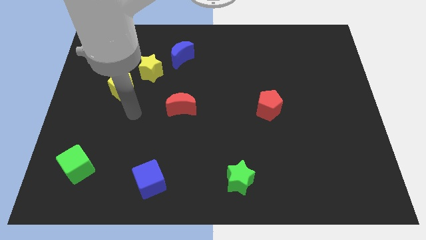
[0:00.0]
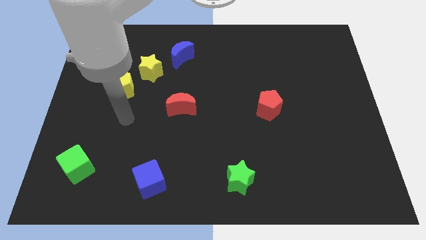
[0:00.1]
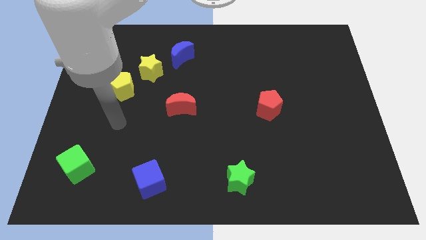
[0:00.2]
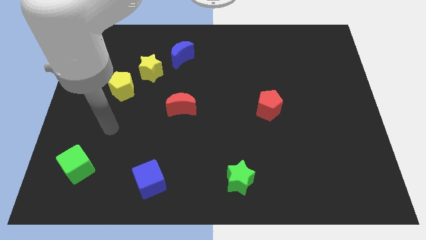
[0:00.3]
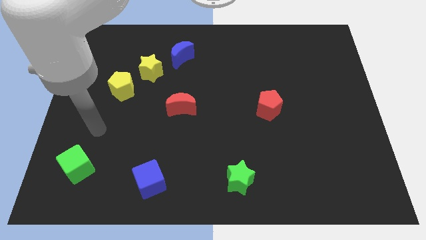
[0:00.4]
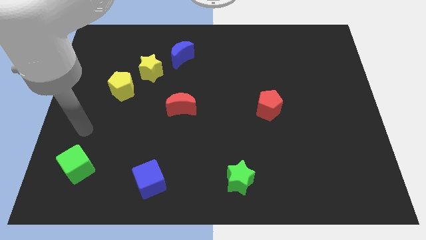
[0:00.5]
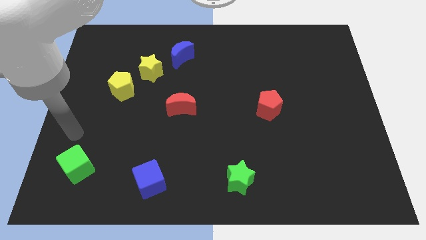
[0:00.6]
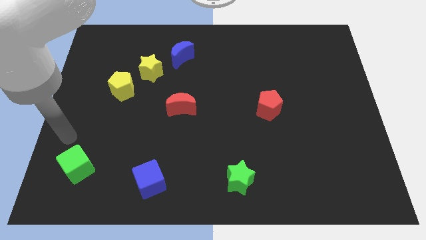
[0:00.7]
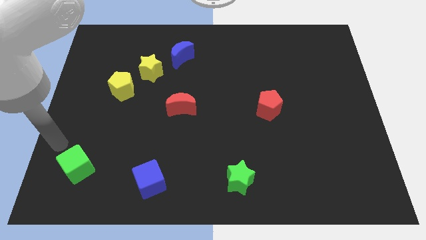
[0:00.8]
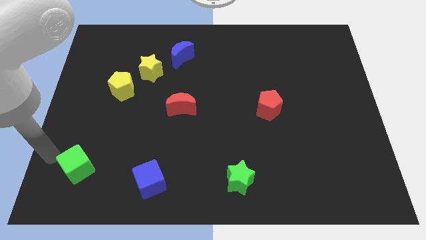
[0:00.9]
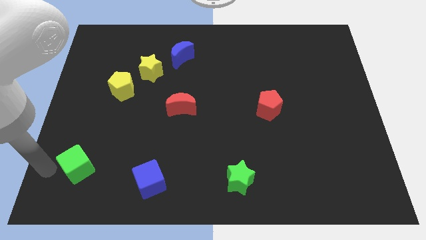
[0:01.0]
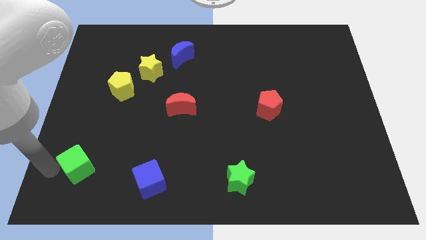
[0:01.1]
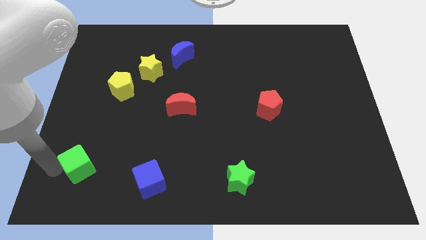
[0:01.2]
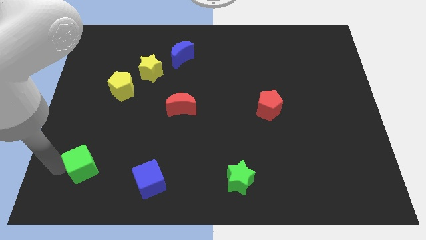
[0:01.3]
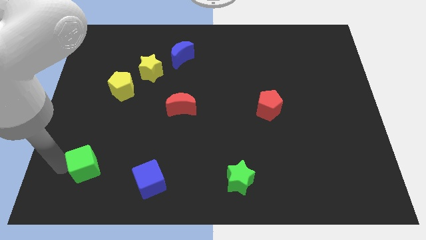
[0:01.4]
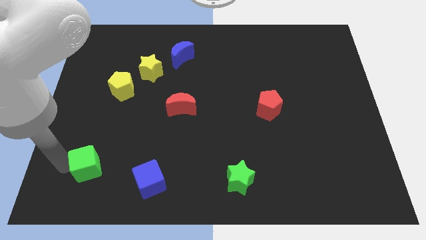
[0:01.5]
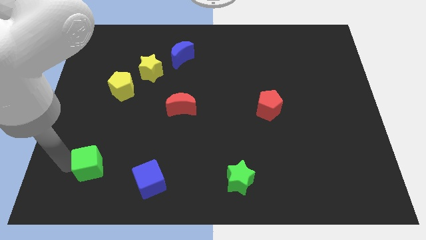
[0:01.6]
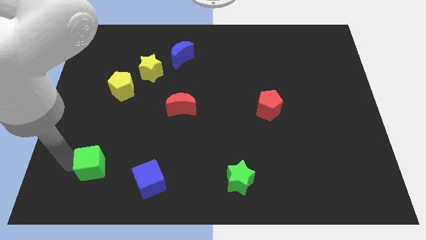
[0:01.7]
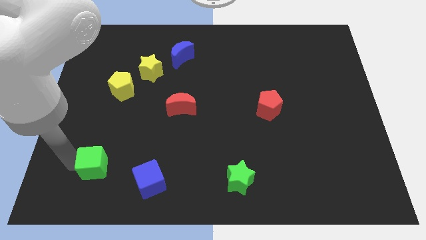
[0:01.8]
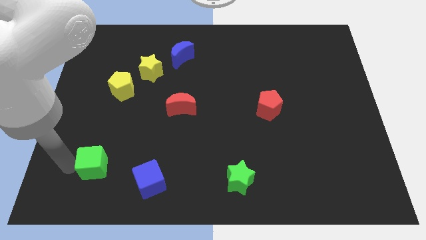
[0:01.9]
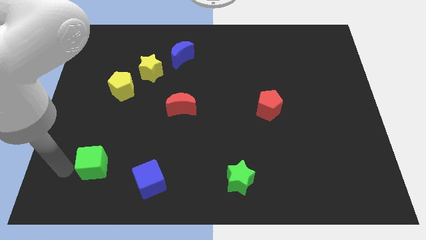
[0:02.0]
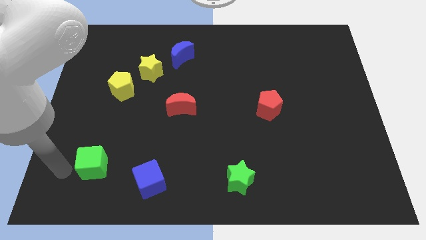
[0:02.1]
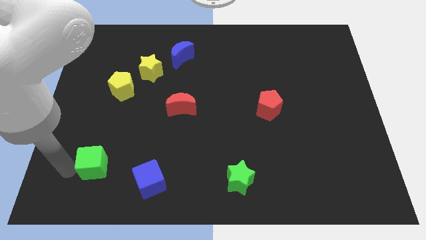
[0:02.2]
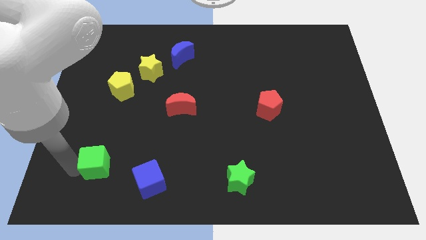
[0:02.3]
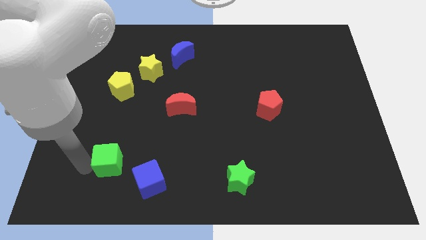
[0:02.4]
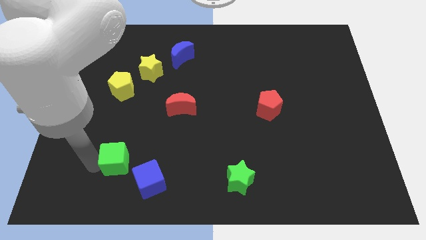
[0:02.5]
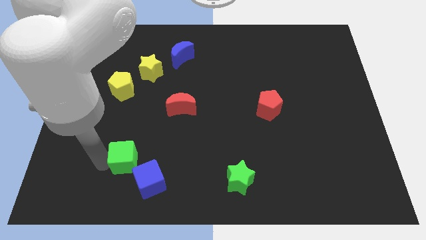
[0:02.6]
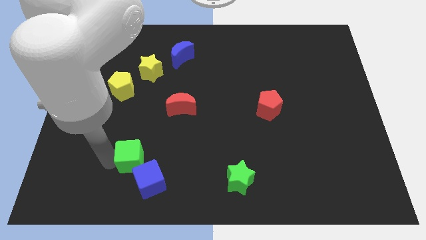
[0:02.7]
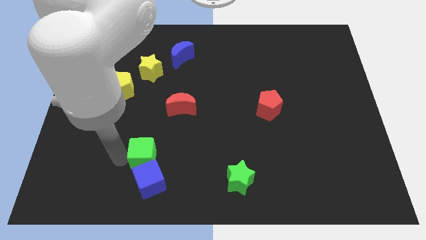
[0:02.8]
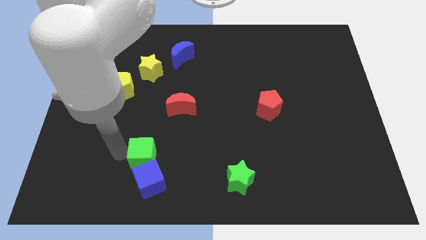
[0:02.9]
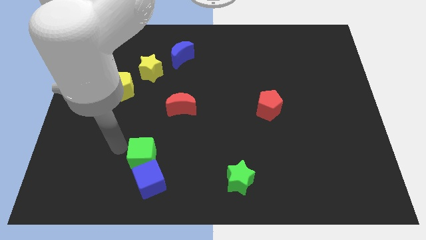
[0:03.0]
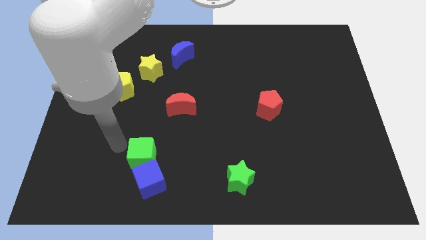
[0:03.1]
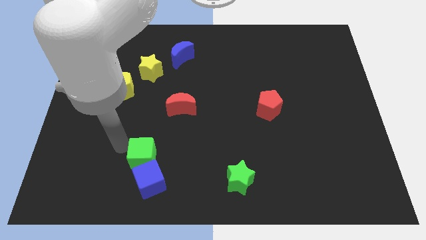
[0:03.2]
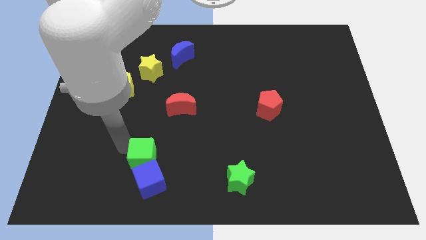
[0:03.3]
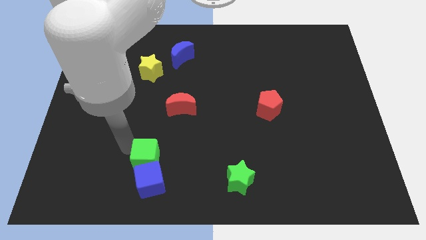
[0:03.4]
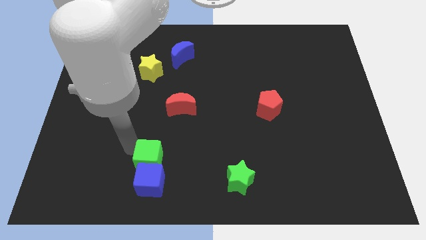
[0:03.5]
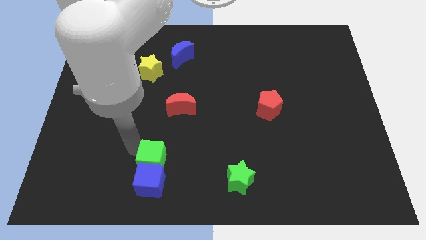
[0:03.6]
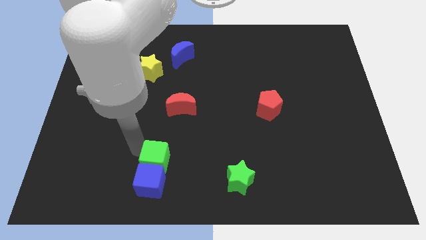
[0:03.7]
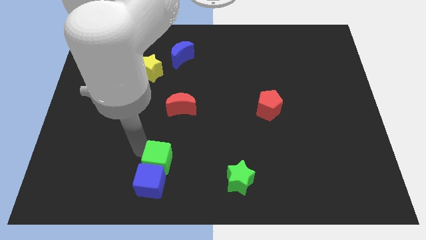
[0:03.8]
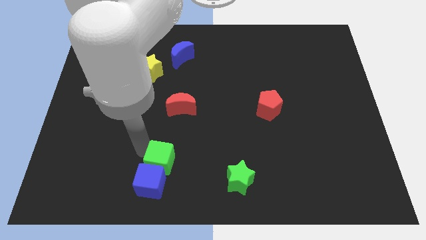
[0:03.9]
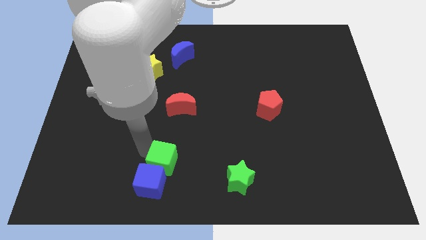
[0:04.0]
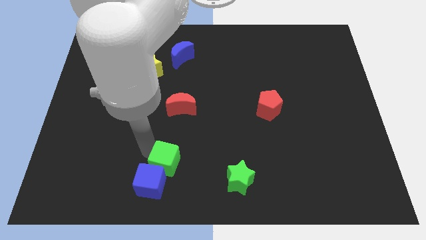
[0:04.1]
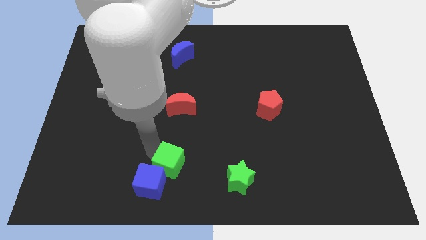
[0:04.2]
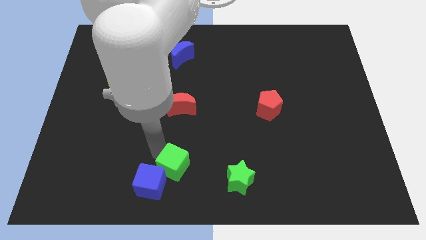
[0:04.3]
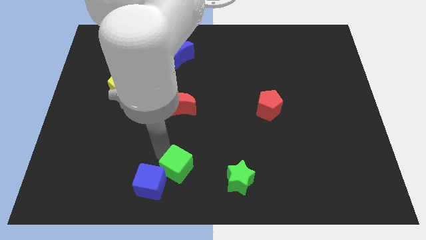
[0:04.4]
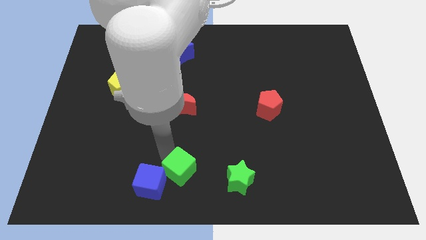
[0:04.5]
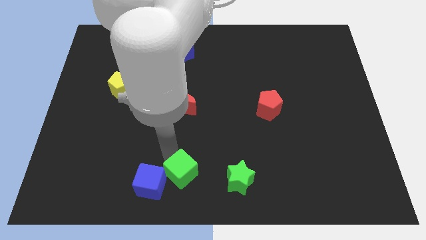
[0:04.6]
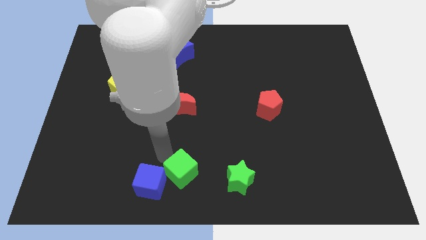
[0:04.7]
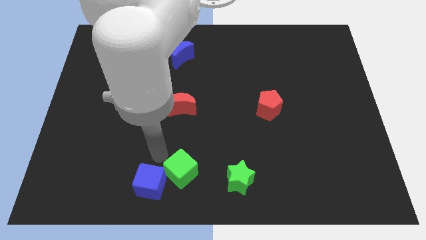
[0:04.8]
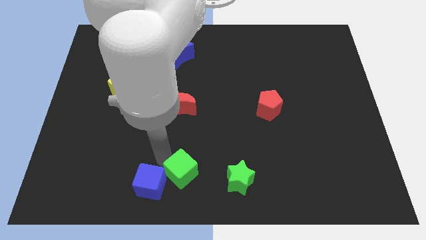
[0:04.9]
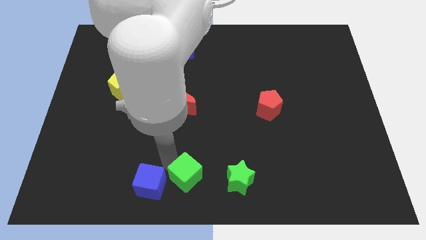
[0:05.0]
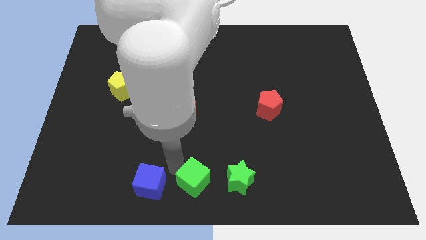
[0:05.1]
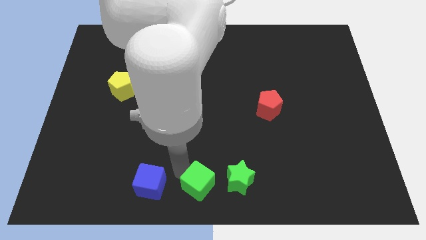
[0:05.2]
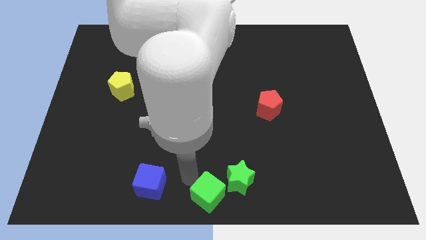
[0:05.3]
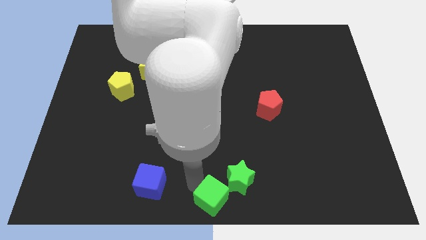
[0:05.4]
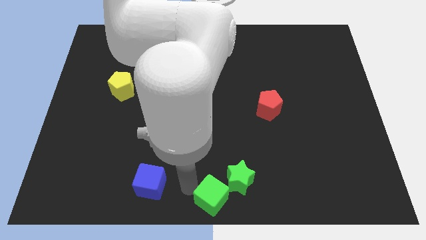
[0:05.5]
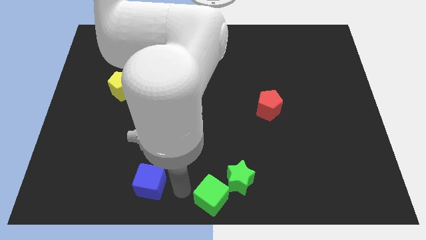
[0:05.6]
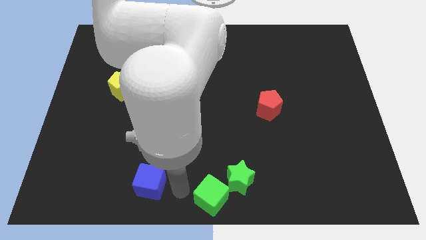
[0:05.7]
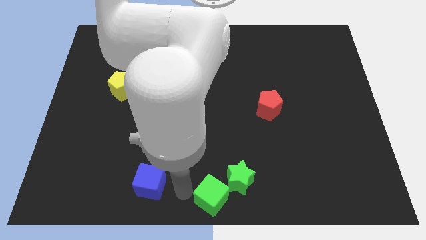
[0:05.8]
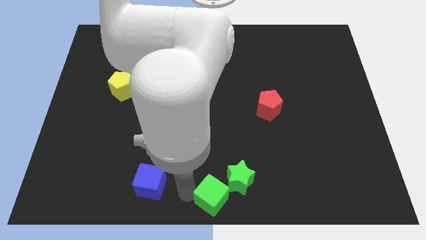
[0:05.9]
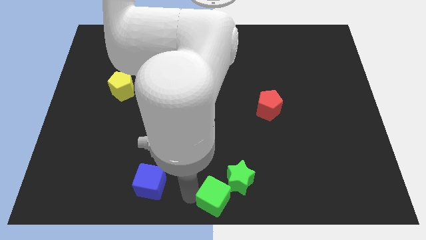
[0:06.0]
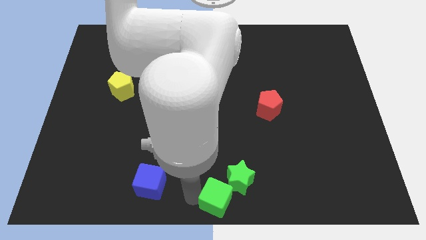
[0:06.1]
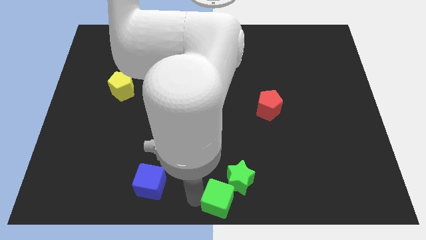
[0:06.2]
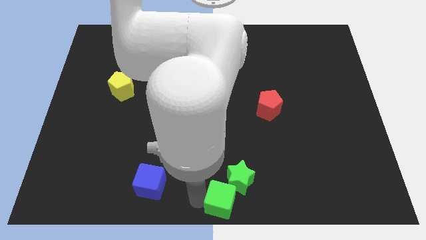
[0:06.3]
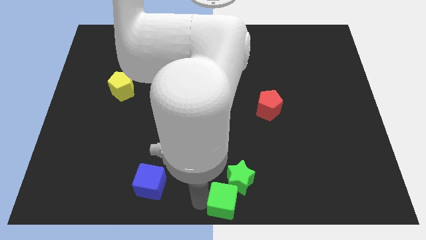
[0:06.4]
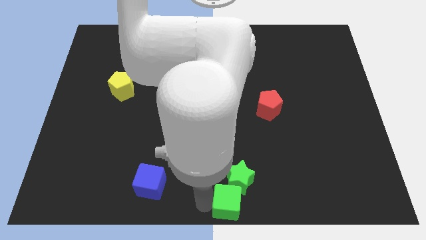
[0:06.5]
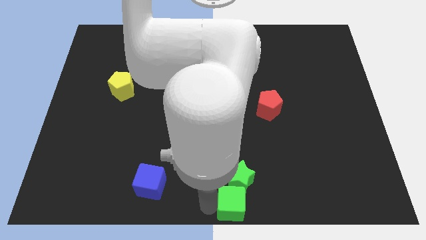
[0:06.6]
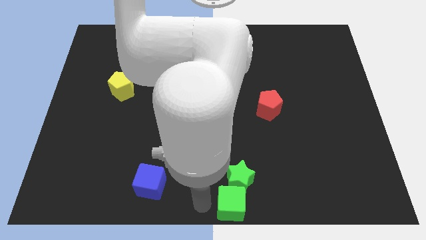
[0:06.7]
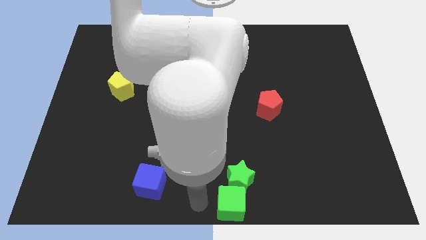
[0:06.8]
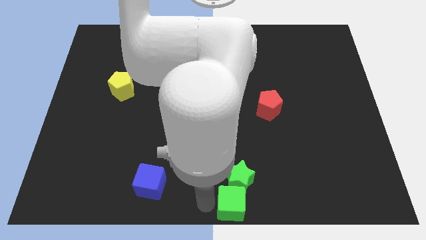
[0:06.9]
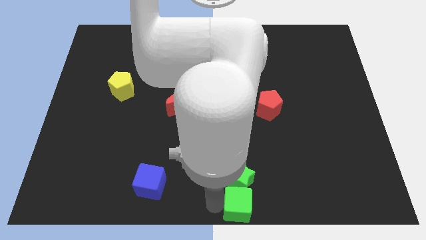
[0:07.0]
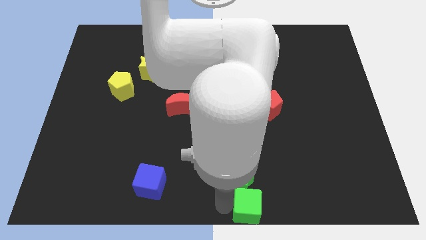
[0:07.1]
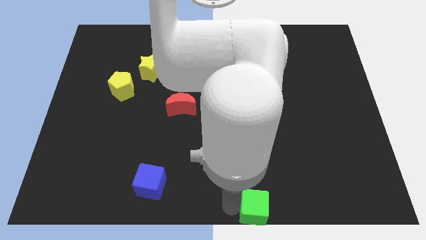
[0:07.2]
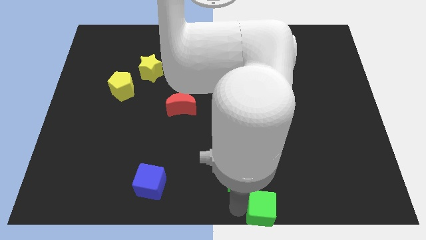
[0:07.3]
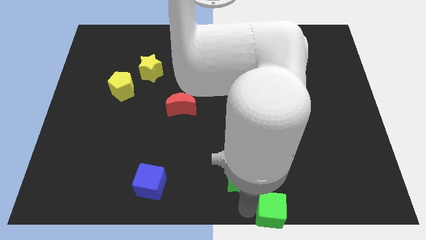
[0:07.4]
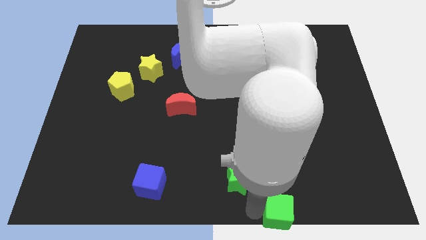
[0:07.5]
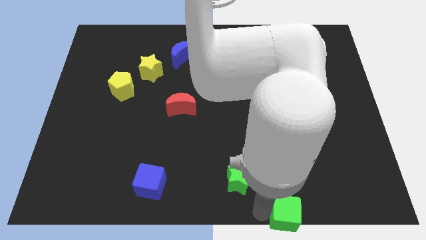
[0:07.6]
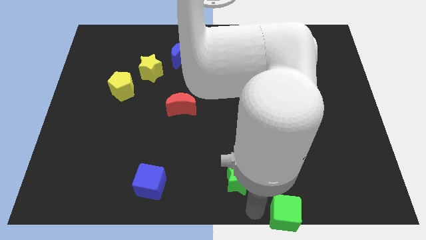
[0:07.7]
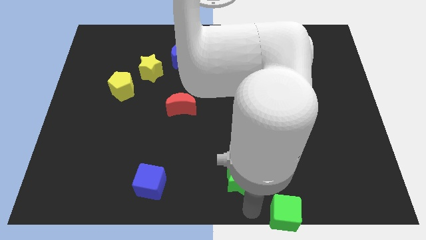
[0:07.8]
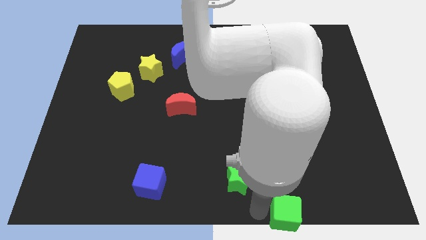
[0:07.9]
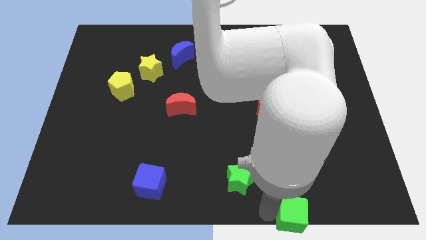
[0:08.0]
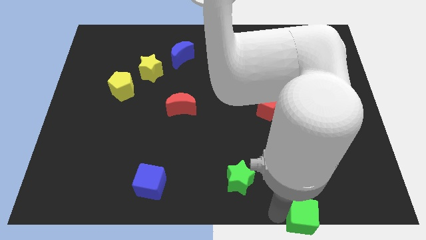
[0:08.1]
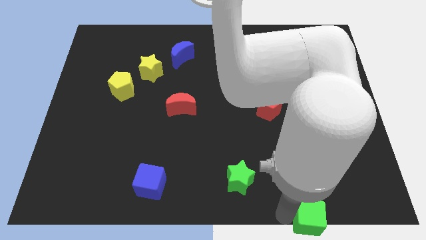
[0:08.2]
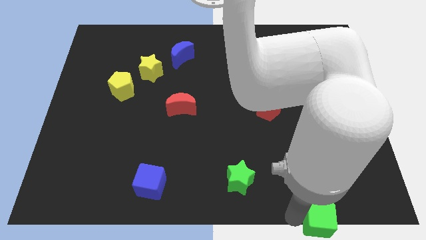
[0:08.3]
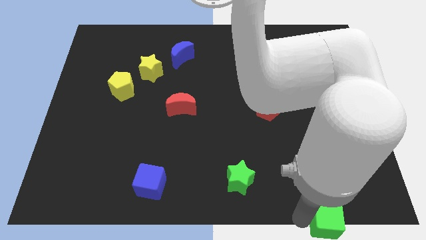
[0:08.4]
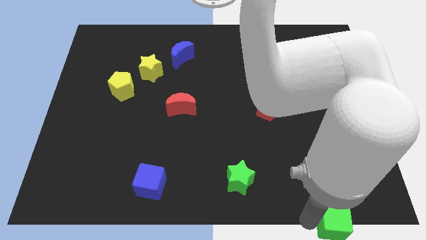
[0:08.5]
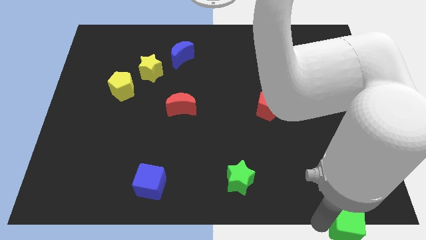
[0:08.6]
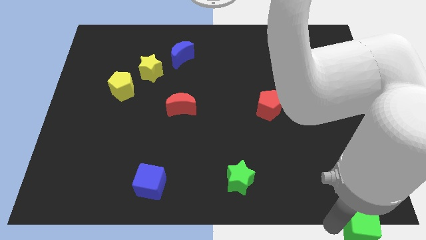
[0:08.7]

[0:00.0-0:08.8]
slide the green cube to the bottom right
